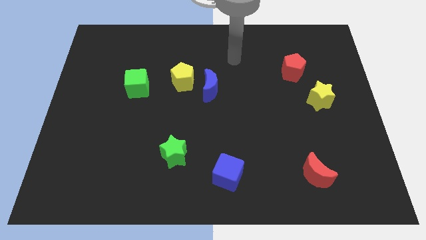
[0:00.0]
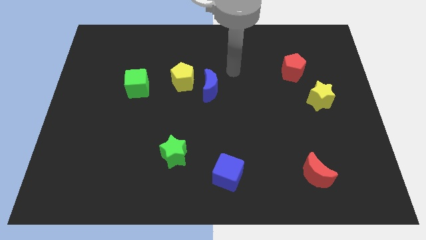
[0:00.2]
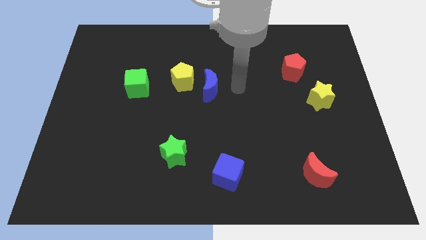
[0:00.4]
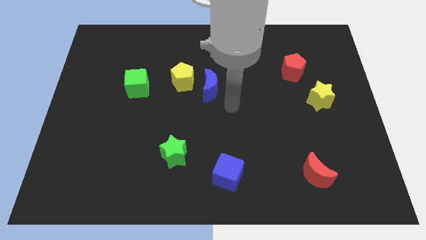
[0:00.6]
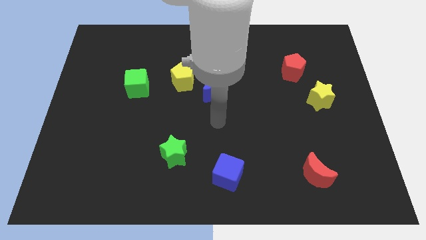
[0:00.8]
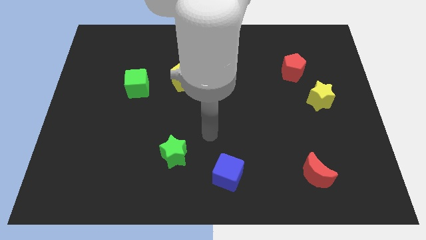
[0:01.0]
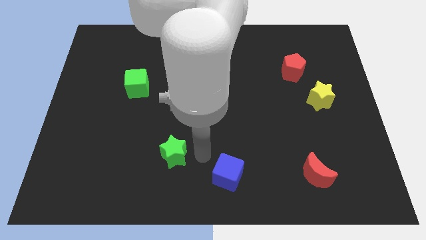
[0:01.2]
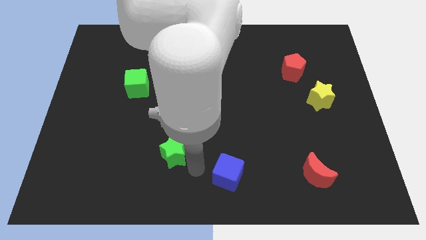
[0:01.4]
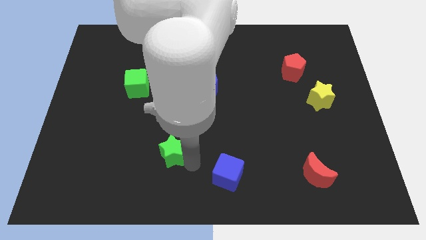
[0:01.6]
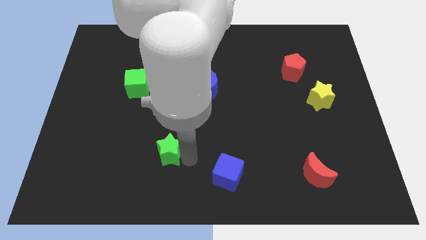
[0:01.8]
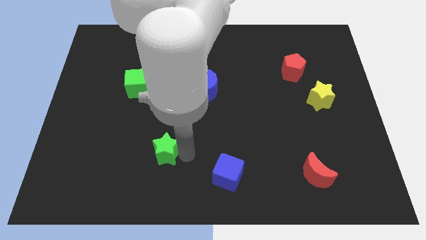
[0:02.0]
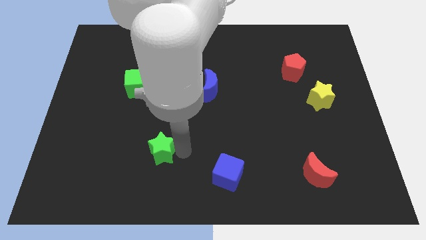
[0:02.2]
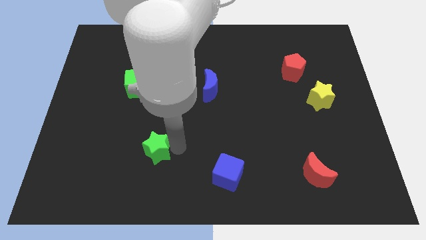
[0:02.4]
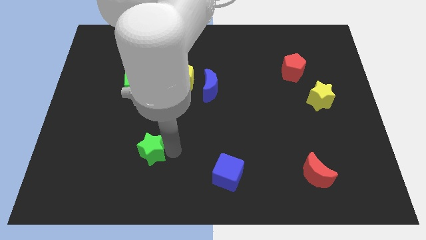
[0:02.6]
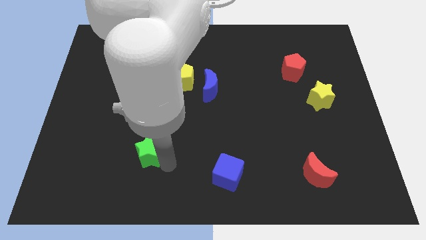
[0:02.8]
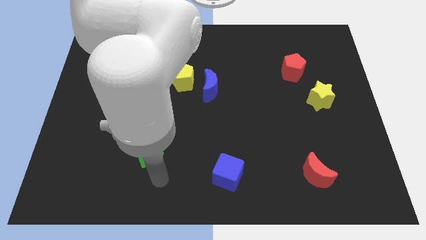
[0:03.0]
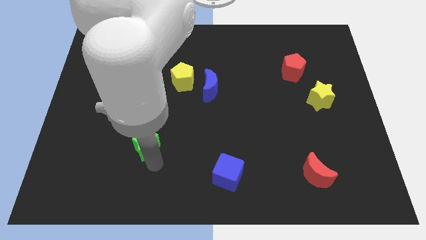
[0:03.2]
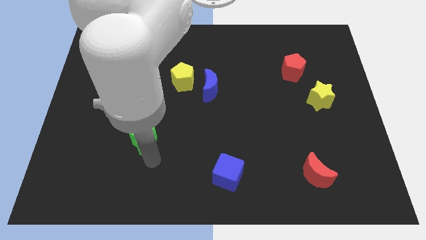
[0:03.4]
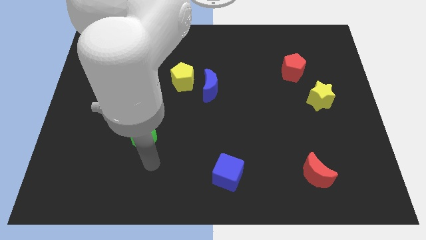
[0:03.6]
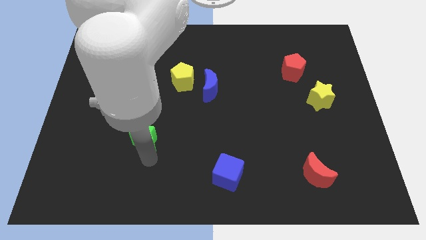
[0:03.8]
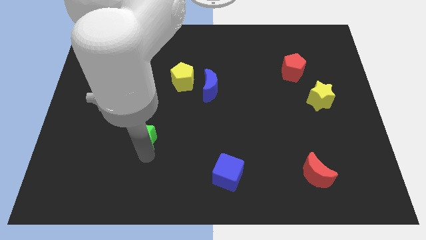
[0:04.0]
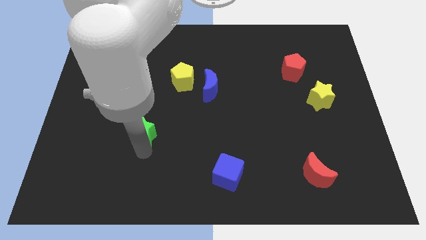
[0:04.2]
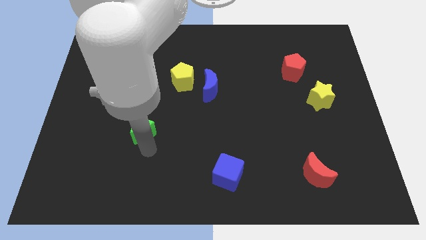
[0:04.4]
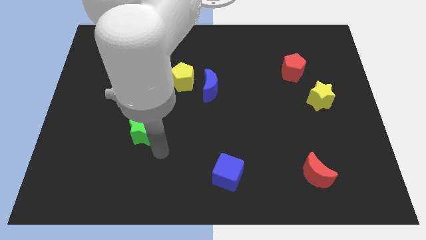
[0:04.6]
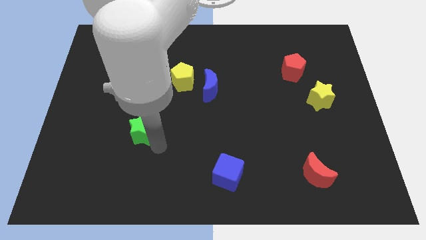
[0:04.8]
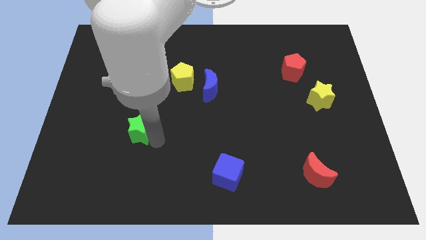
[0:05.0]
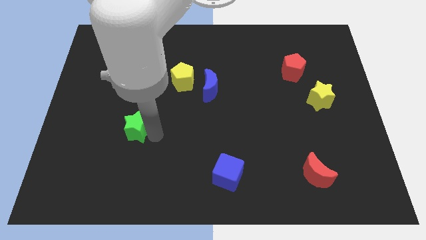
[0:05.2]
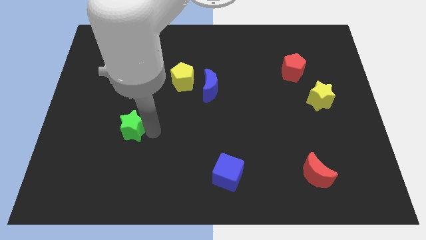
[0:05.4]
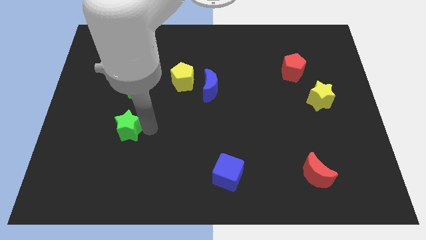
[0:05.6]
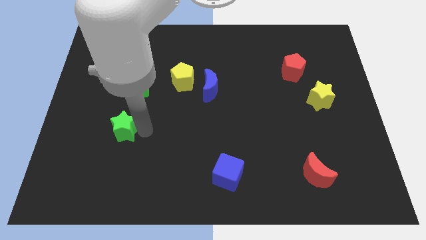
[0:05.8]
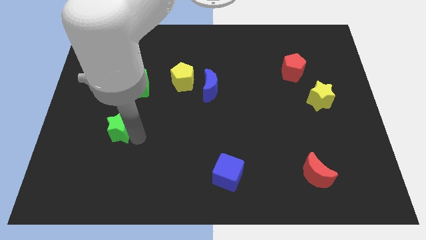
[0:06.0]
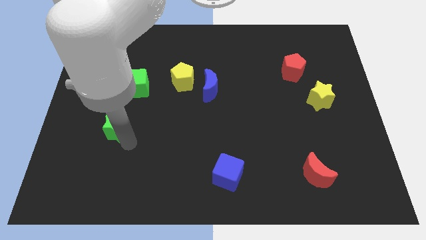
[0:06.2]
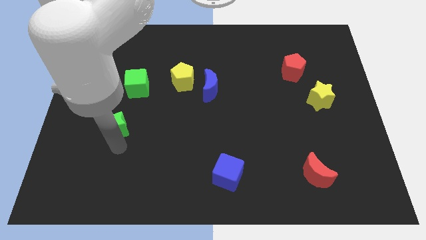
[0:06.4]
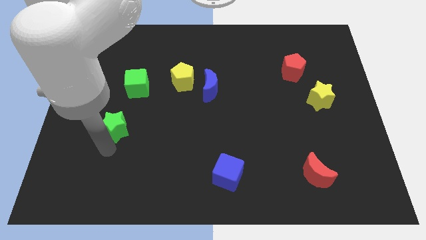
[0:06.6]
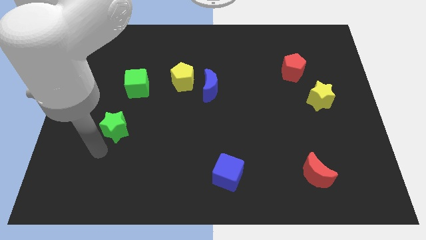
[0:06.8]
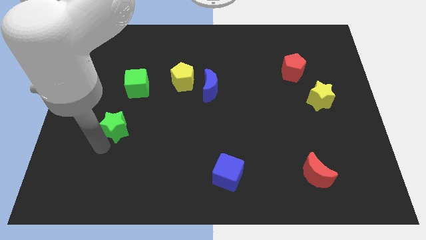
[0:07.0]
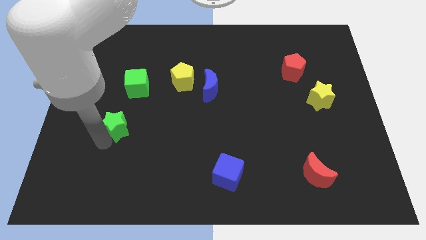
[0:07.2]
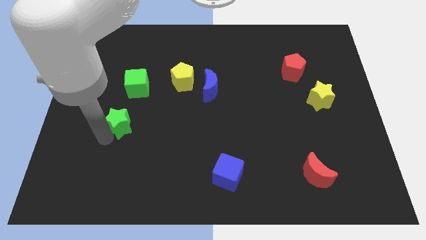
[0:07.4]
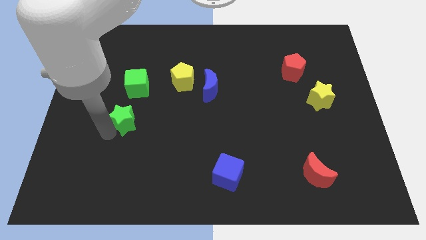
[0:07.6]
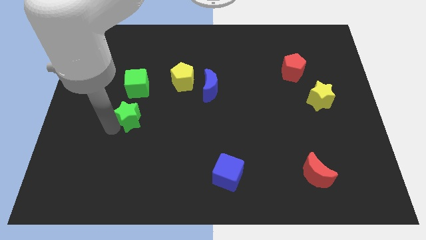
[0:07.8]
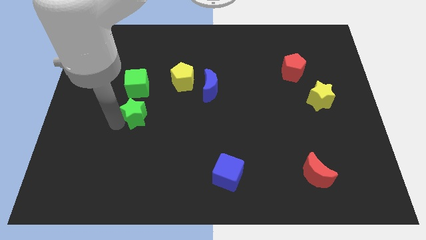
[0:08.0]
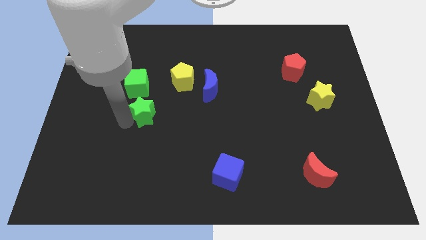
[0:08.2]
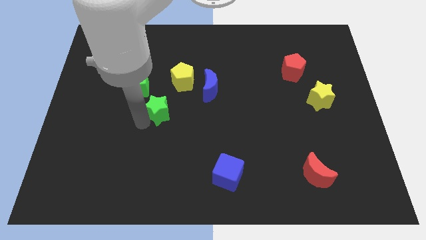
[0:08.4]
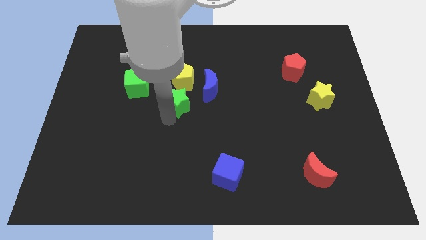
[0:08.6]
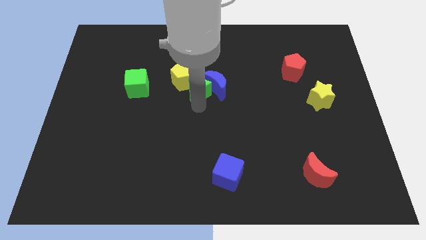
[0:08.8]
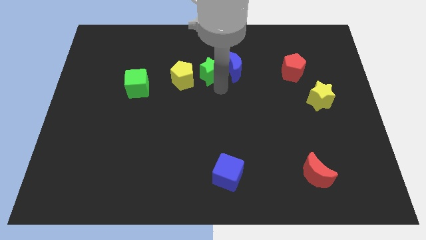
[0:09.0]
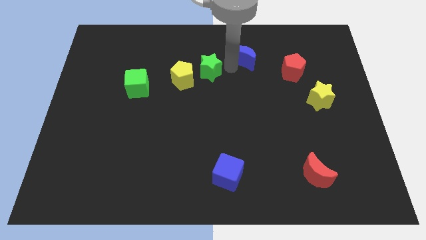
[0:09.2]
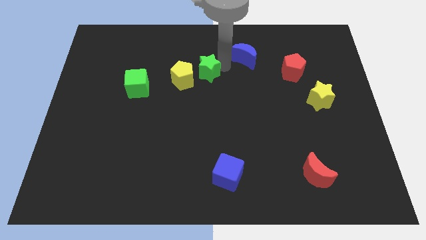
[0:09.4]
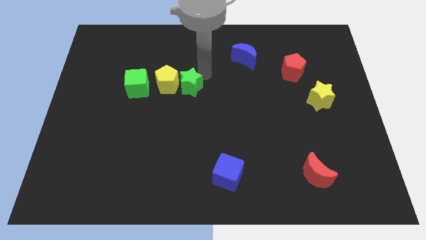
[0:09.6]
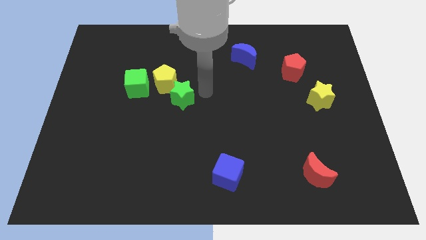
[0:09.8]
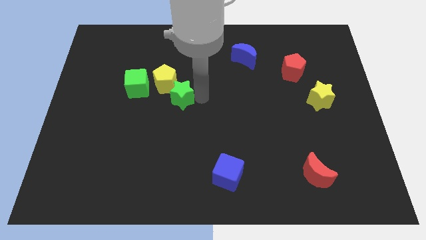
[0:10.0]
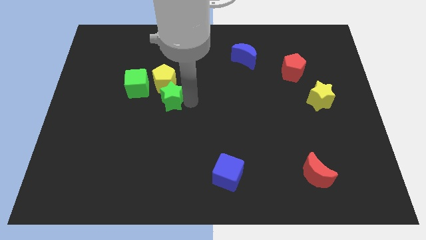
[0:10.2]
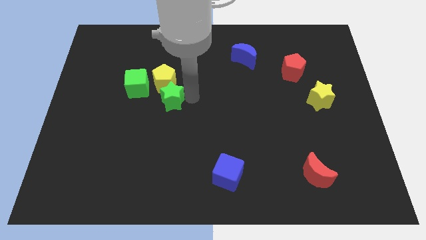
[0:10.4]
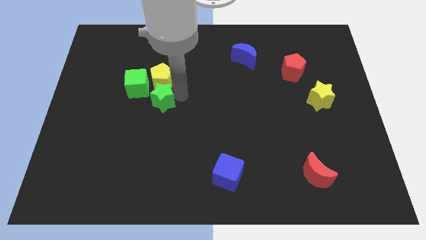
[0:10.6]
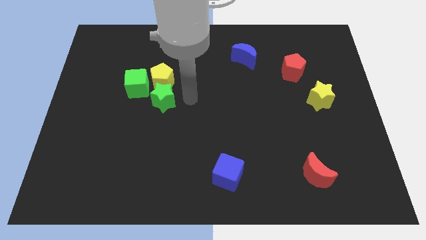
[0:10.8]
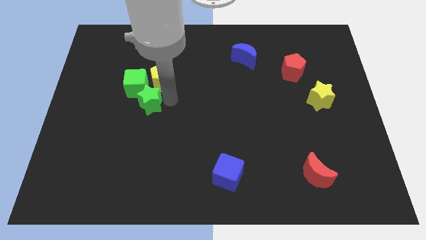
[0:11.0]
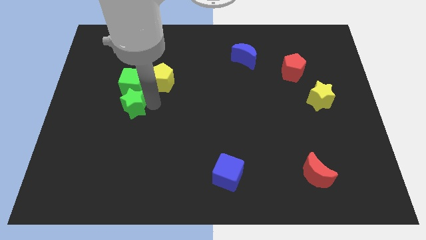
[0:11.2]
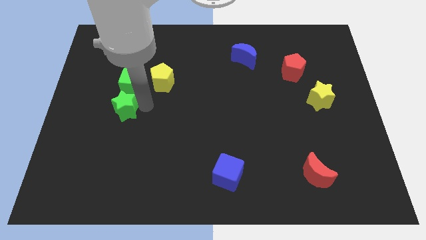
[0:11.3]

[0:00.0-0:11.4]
put the green star to the bottom left side of the green cube

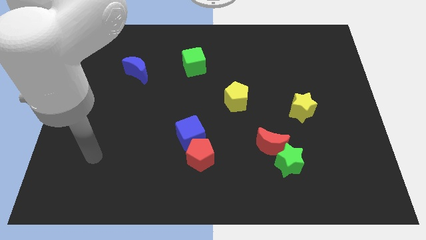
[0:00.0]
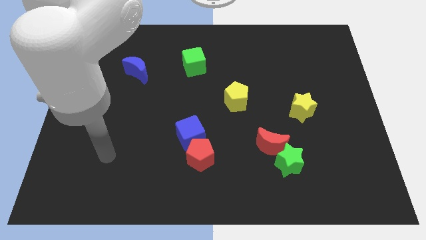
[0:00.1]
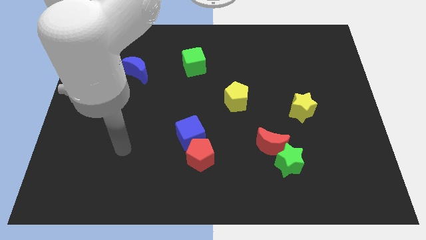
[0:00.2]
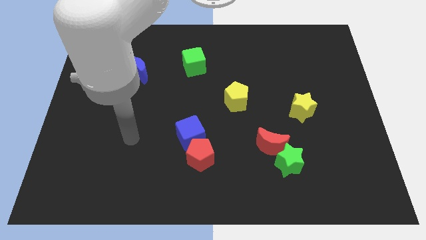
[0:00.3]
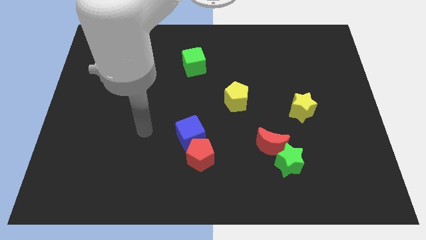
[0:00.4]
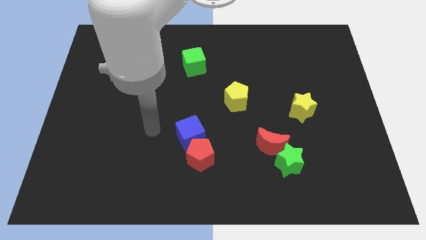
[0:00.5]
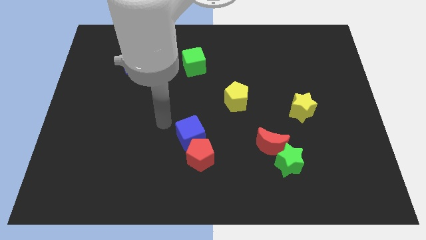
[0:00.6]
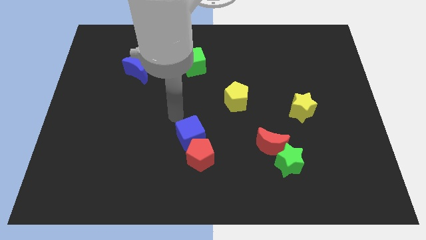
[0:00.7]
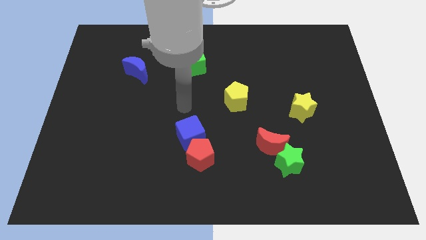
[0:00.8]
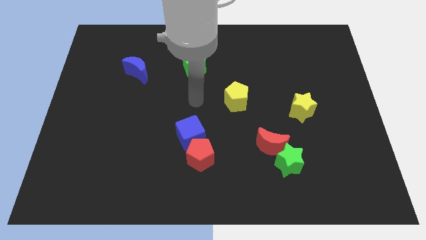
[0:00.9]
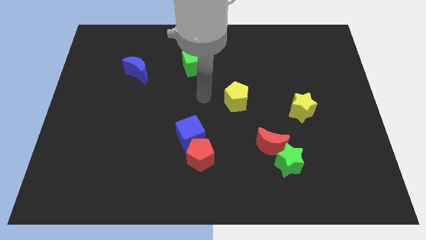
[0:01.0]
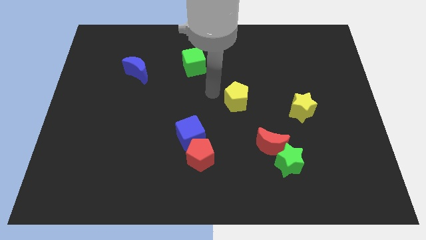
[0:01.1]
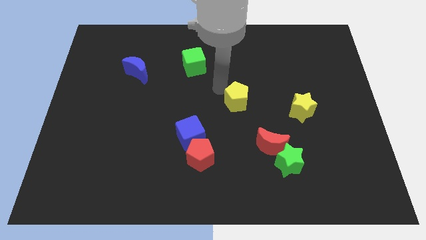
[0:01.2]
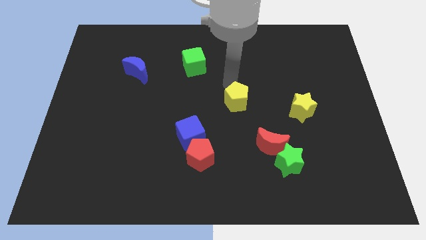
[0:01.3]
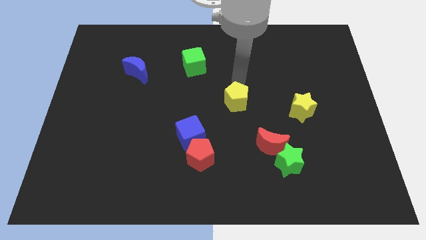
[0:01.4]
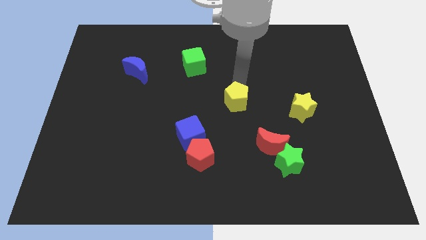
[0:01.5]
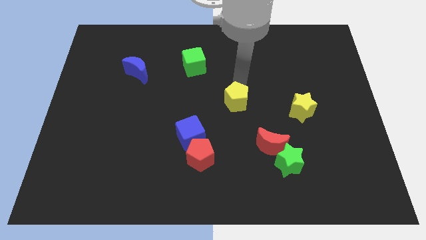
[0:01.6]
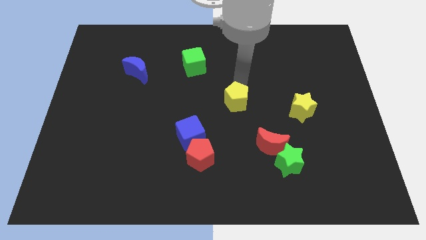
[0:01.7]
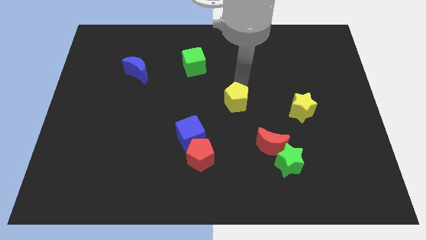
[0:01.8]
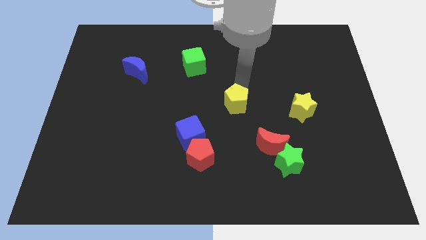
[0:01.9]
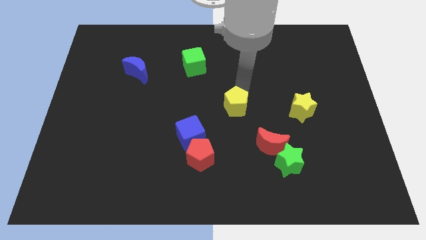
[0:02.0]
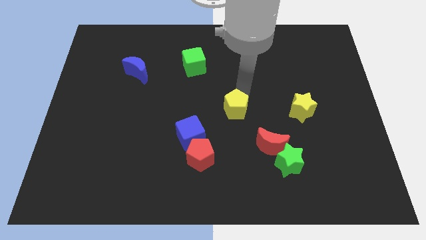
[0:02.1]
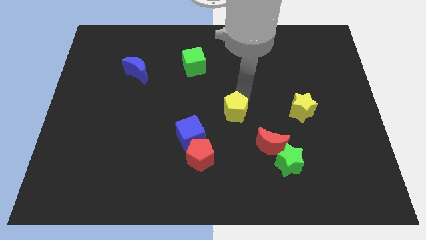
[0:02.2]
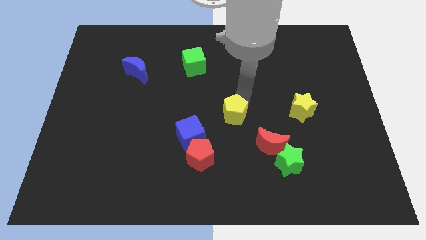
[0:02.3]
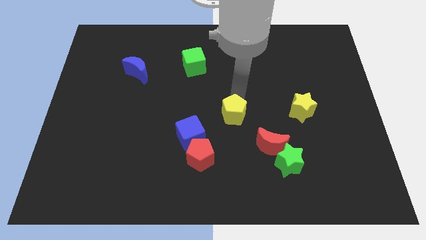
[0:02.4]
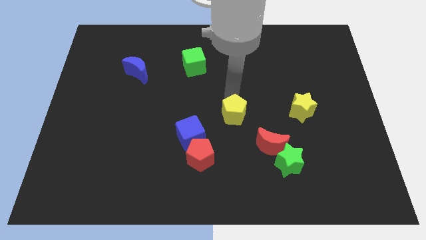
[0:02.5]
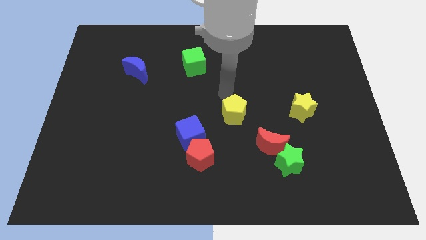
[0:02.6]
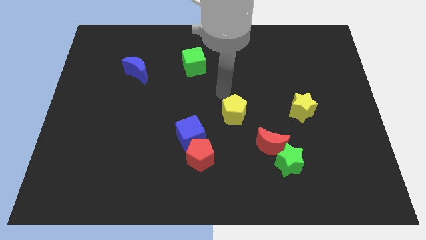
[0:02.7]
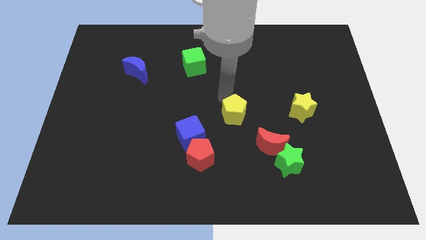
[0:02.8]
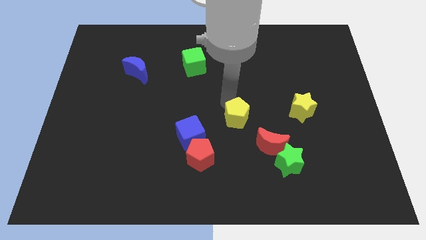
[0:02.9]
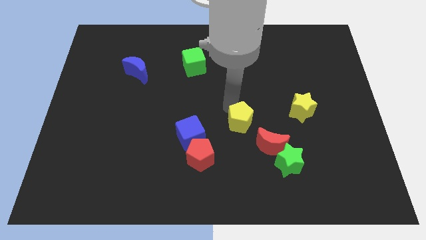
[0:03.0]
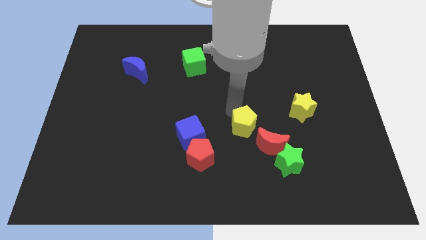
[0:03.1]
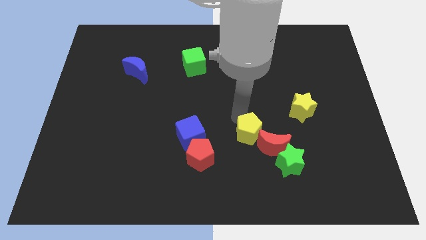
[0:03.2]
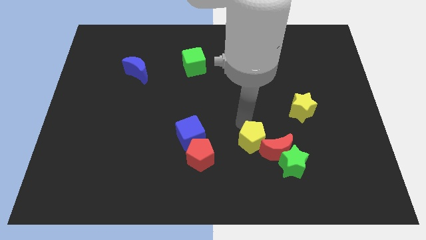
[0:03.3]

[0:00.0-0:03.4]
put the yellow pentagon just right of the red pentagon
